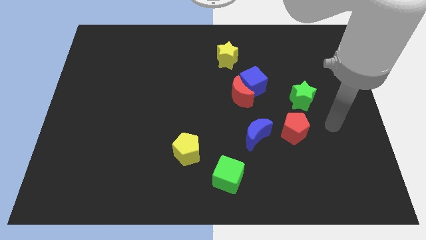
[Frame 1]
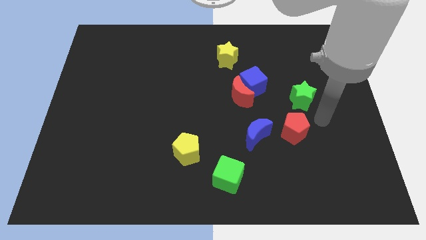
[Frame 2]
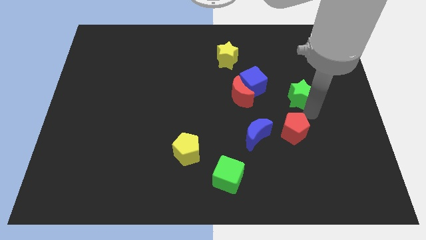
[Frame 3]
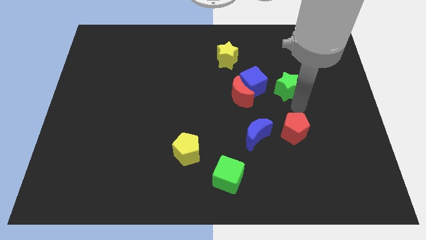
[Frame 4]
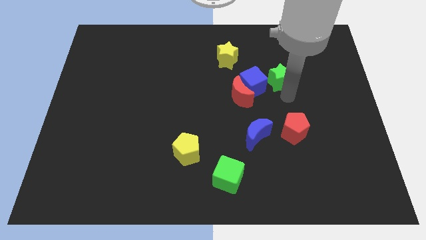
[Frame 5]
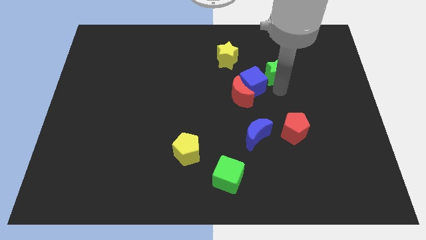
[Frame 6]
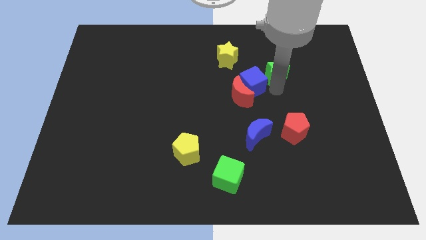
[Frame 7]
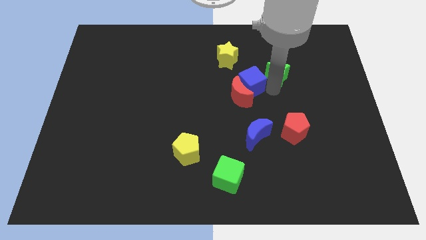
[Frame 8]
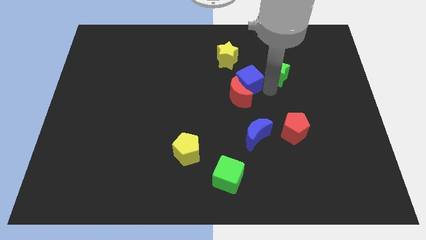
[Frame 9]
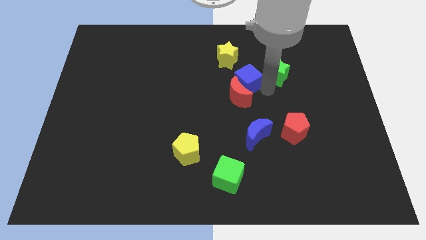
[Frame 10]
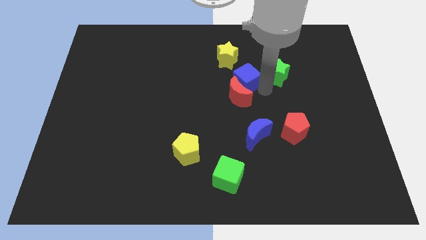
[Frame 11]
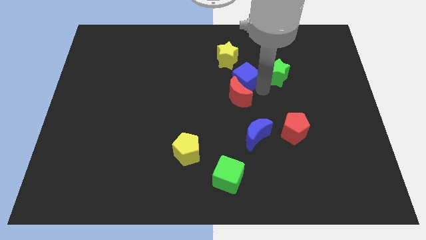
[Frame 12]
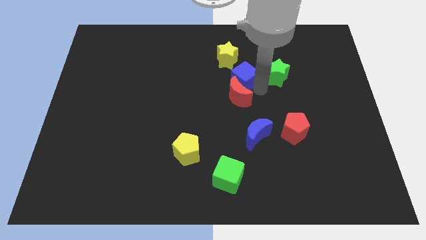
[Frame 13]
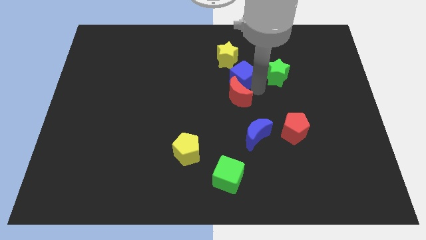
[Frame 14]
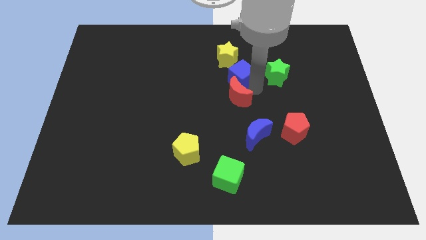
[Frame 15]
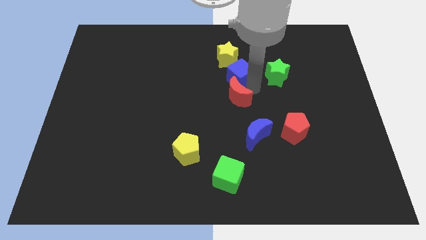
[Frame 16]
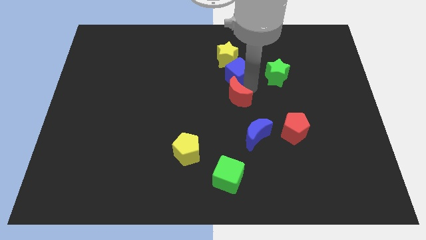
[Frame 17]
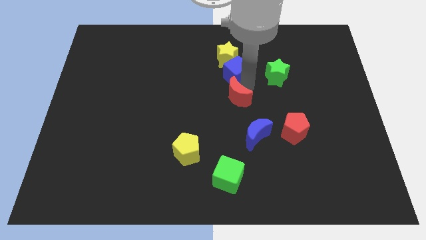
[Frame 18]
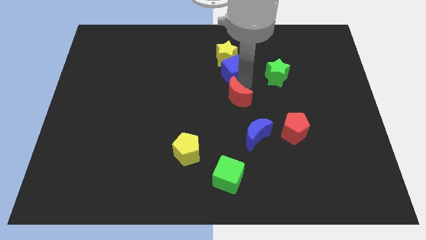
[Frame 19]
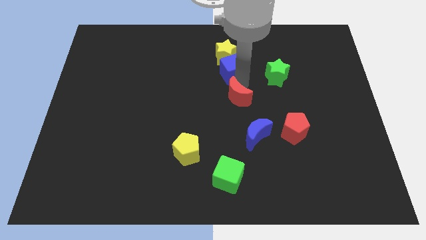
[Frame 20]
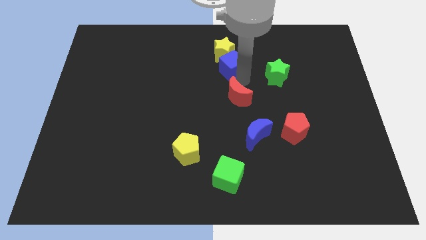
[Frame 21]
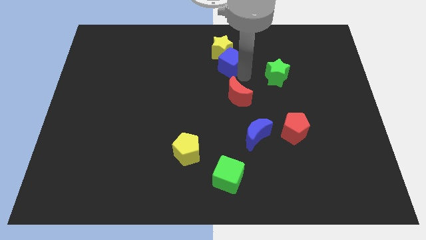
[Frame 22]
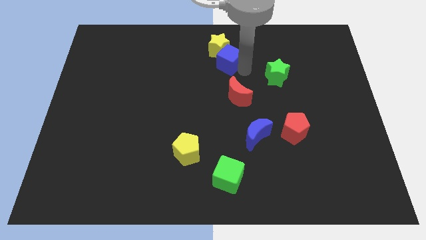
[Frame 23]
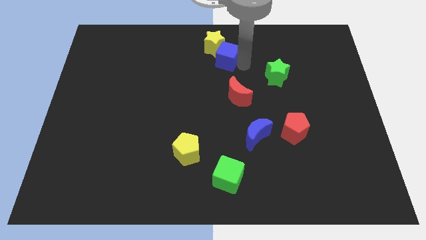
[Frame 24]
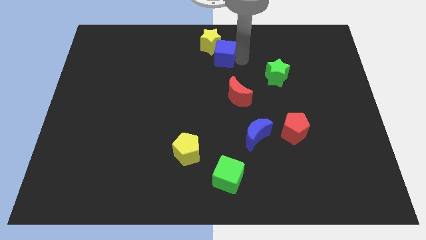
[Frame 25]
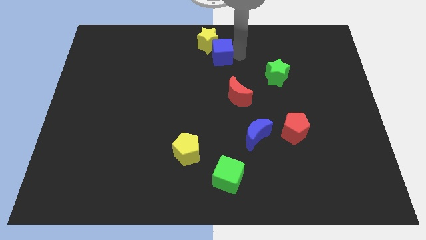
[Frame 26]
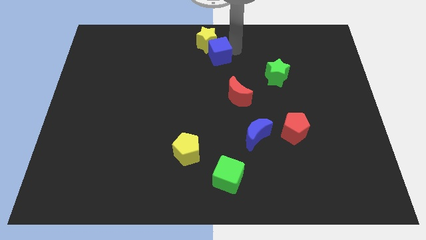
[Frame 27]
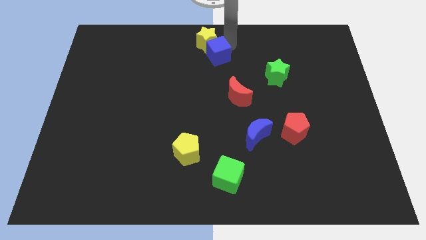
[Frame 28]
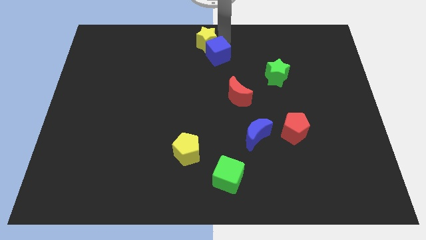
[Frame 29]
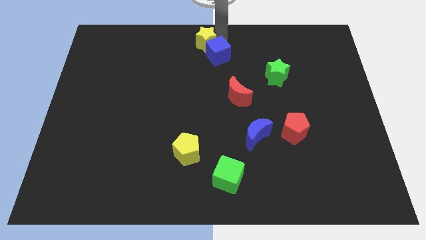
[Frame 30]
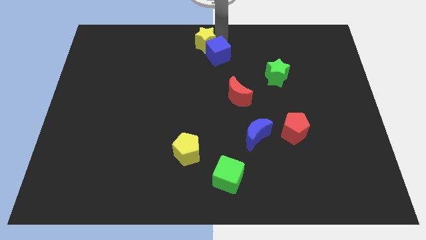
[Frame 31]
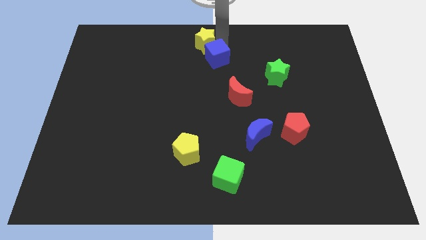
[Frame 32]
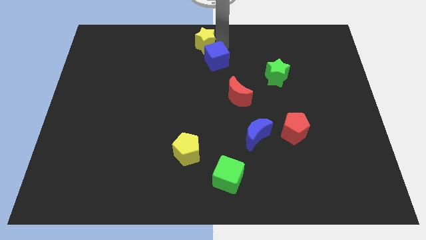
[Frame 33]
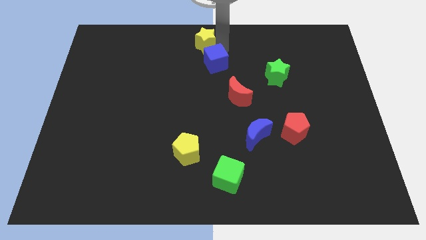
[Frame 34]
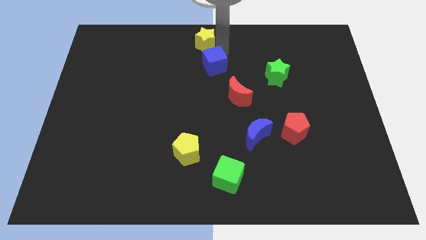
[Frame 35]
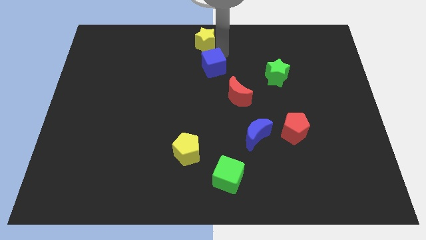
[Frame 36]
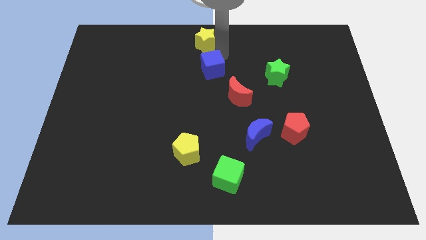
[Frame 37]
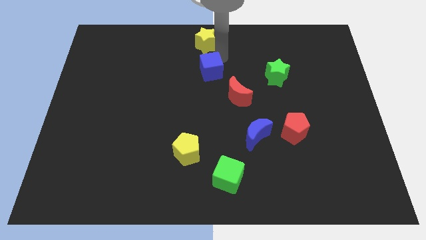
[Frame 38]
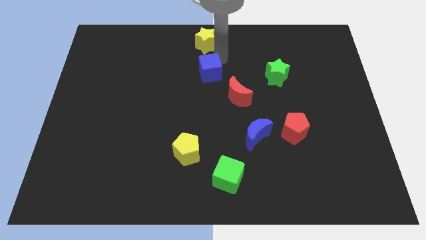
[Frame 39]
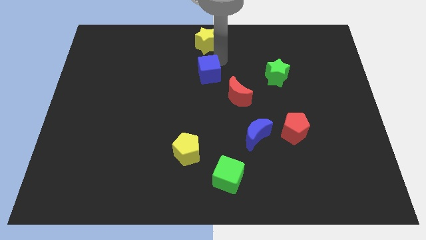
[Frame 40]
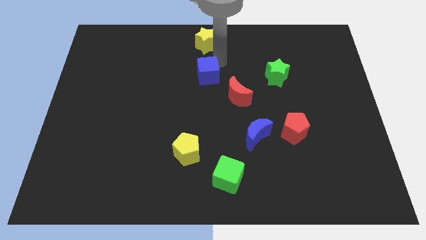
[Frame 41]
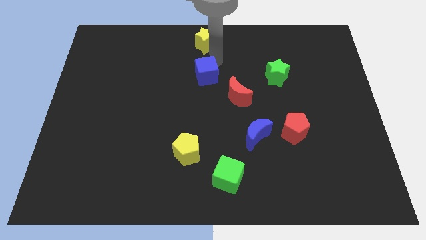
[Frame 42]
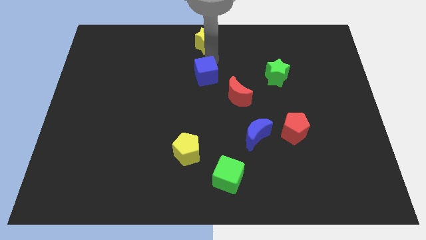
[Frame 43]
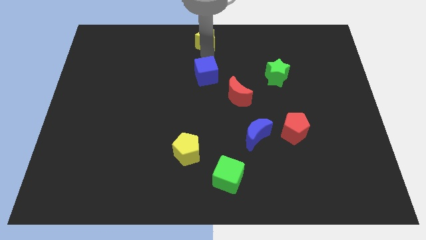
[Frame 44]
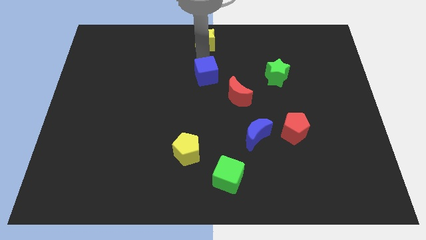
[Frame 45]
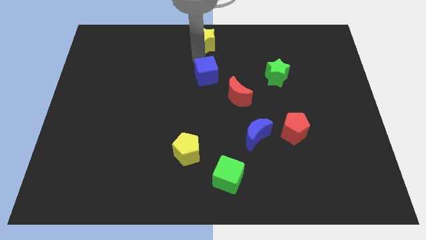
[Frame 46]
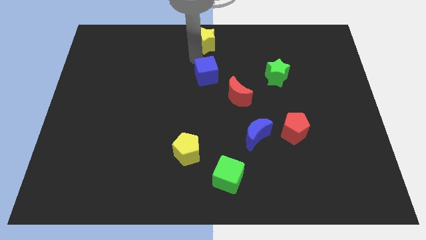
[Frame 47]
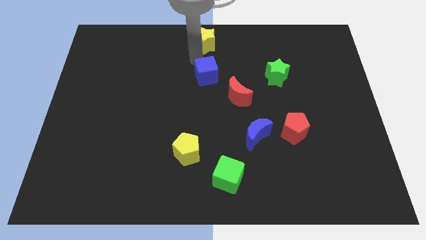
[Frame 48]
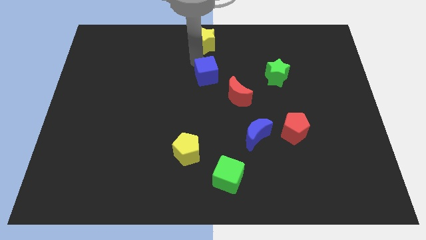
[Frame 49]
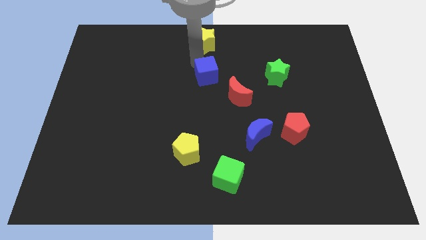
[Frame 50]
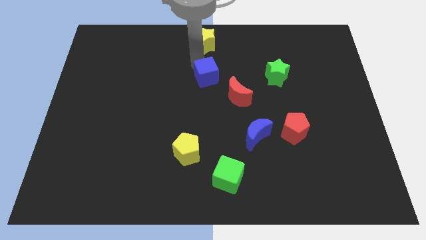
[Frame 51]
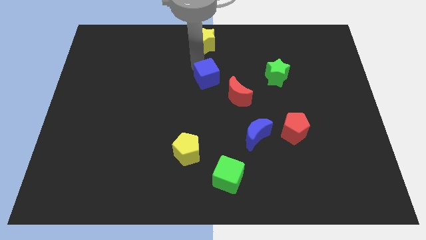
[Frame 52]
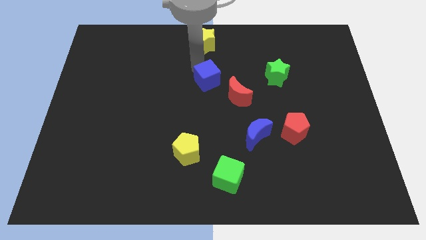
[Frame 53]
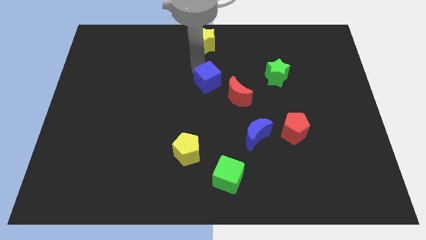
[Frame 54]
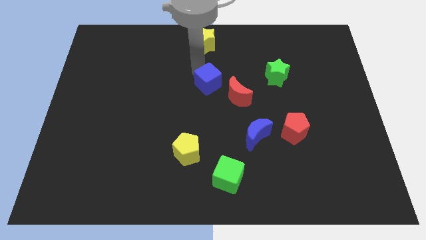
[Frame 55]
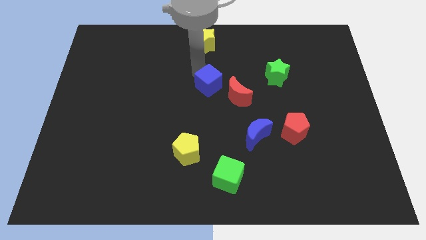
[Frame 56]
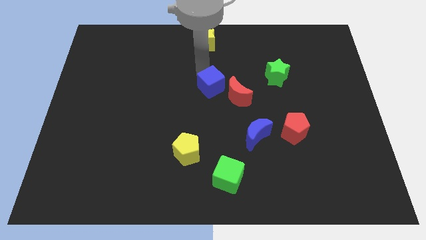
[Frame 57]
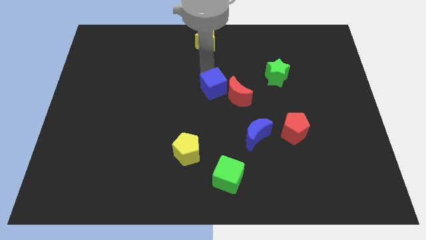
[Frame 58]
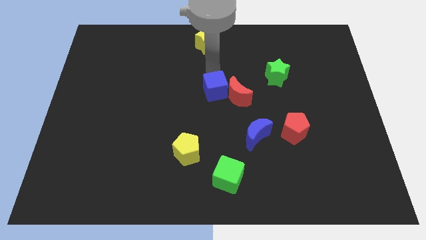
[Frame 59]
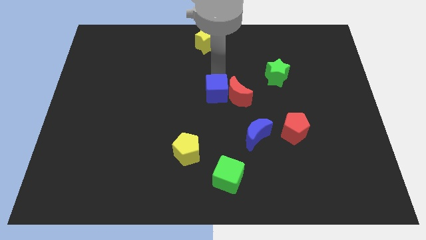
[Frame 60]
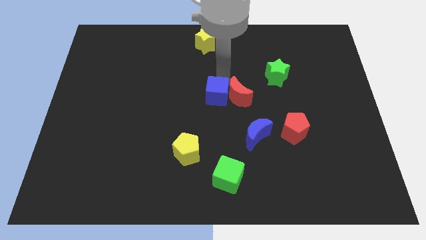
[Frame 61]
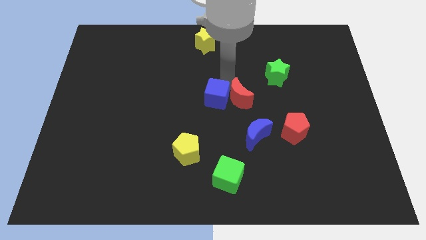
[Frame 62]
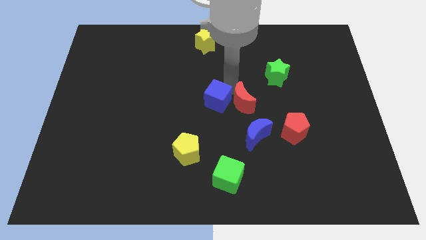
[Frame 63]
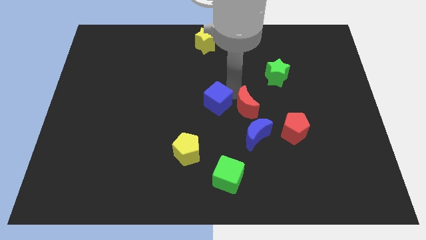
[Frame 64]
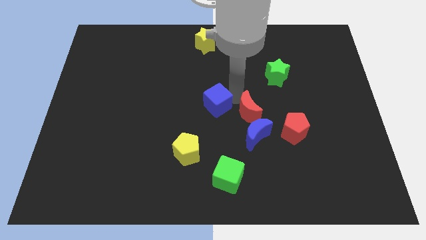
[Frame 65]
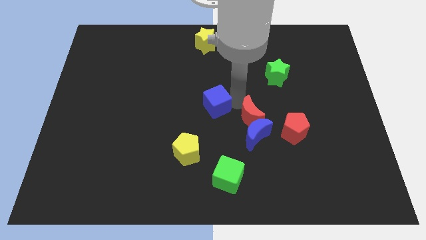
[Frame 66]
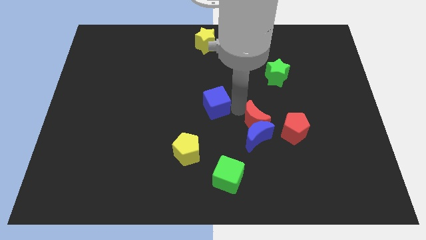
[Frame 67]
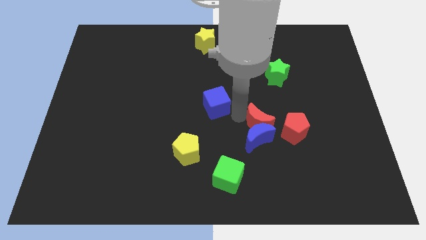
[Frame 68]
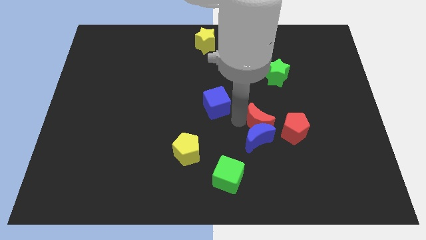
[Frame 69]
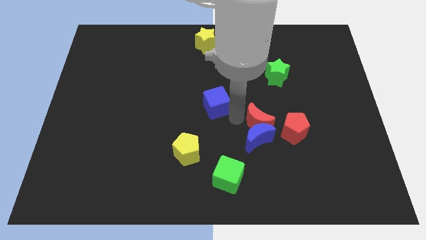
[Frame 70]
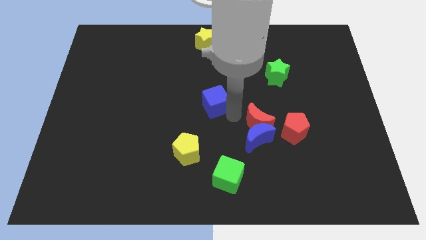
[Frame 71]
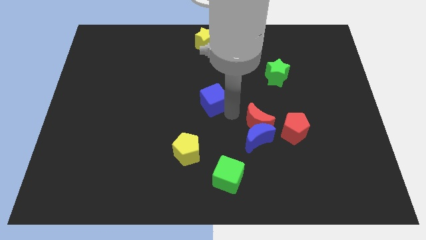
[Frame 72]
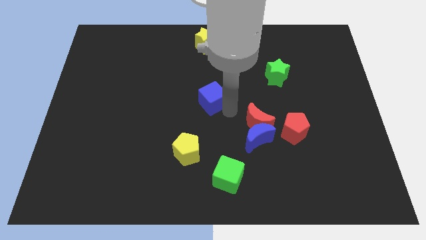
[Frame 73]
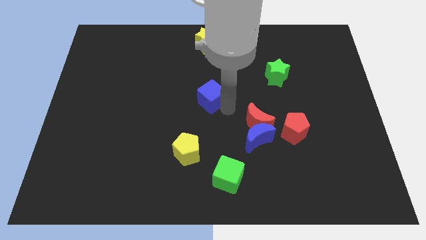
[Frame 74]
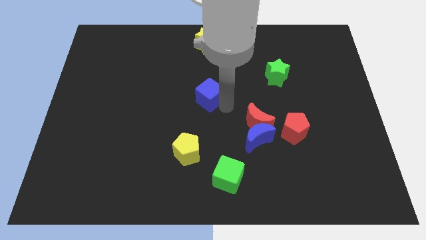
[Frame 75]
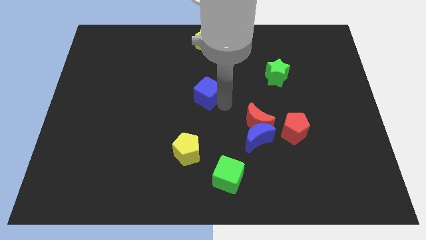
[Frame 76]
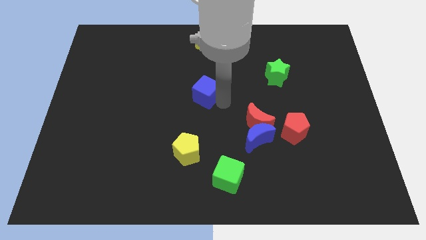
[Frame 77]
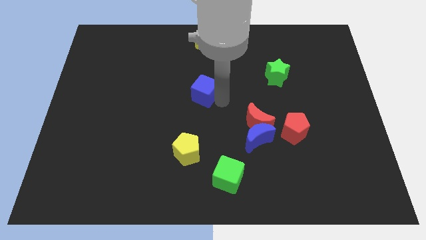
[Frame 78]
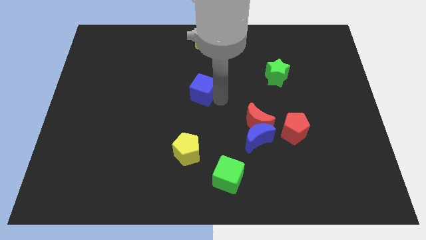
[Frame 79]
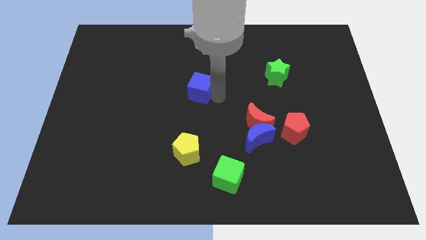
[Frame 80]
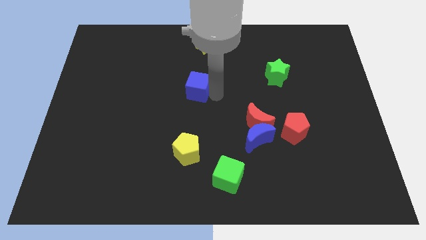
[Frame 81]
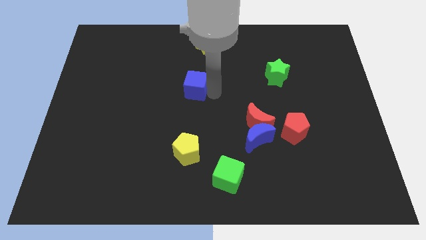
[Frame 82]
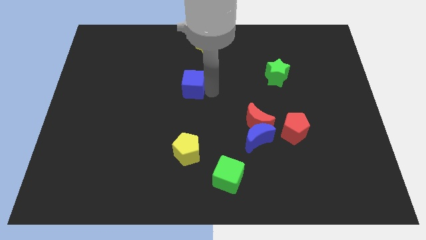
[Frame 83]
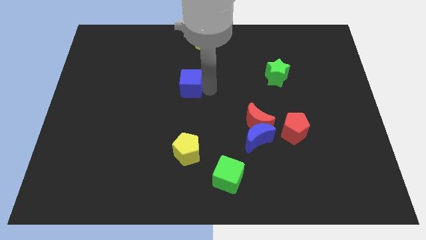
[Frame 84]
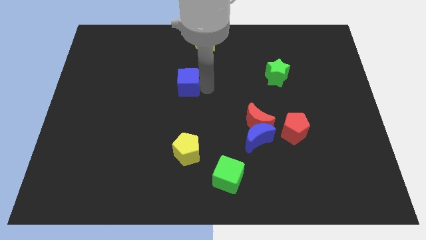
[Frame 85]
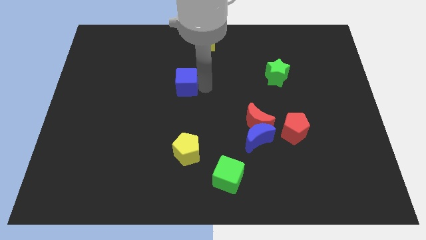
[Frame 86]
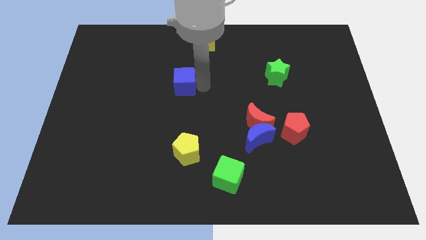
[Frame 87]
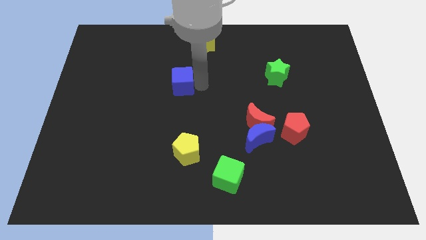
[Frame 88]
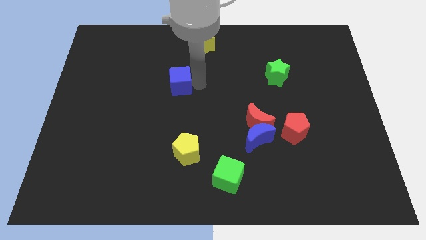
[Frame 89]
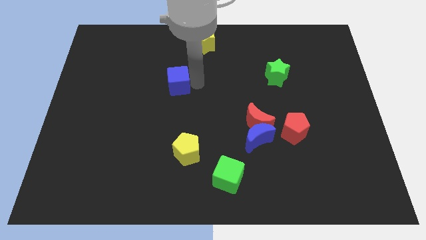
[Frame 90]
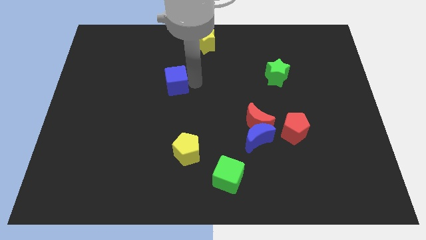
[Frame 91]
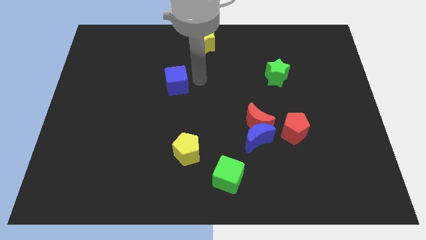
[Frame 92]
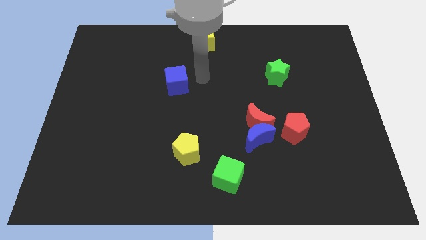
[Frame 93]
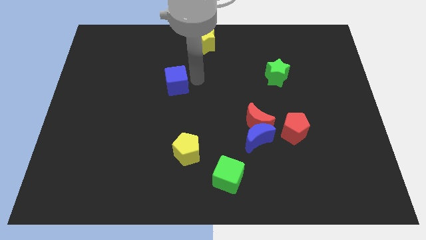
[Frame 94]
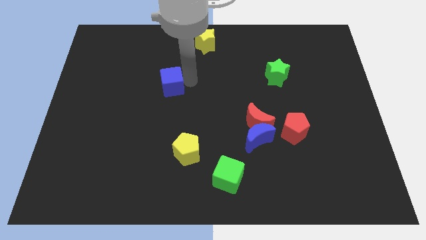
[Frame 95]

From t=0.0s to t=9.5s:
move the blue cube to the left
